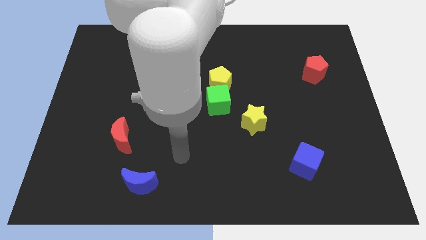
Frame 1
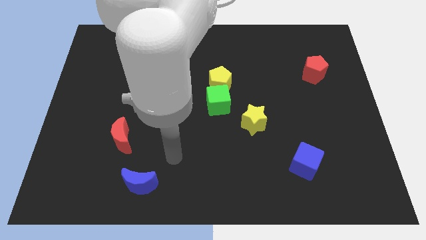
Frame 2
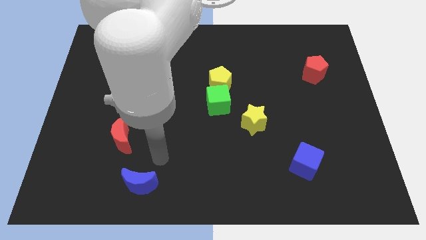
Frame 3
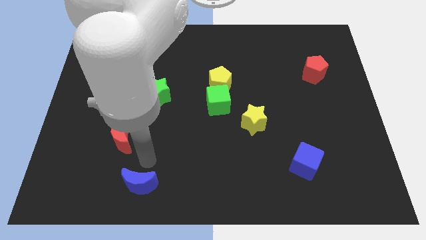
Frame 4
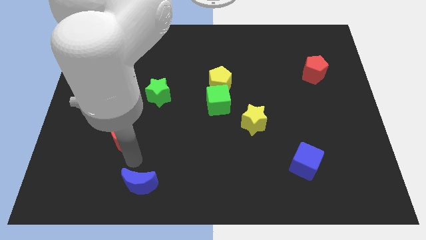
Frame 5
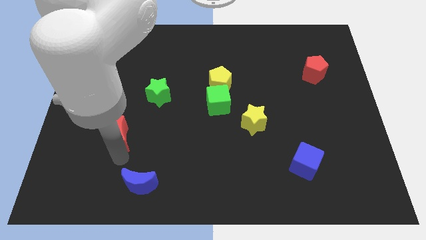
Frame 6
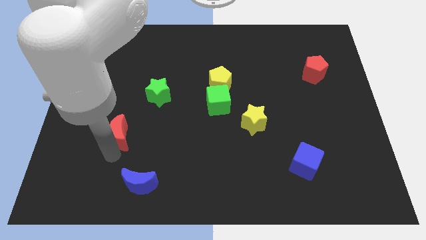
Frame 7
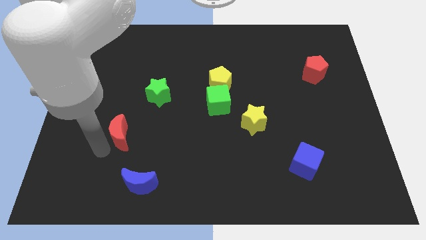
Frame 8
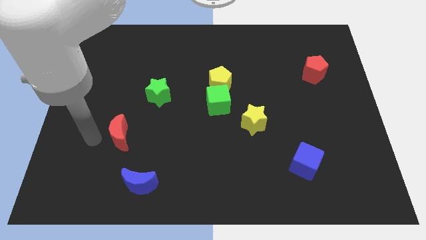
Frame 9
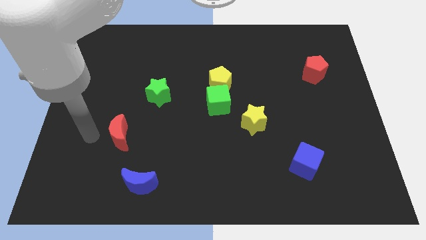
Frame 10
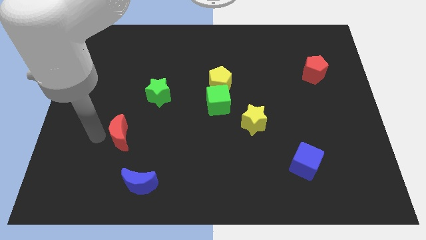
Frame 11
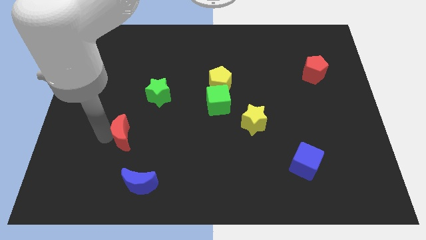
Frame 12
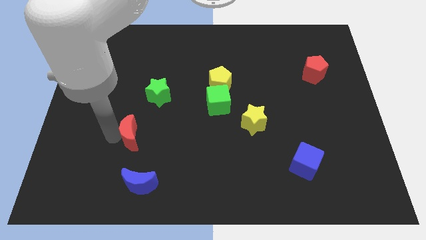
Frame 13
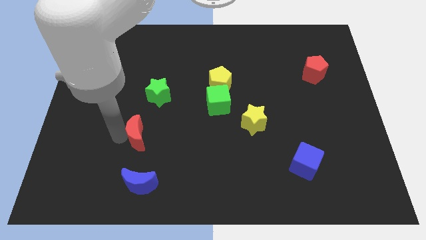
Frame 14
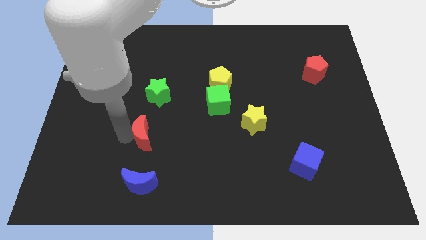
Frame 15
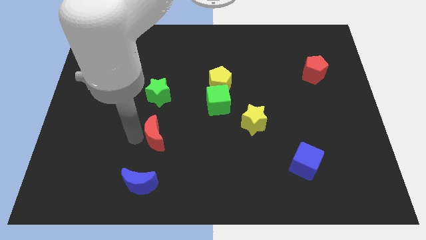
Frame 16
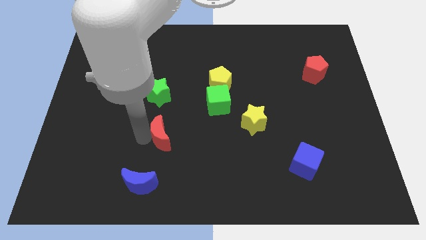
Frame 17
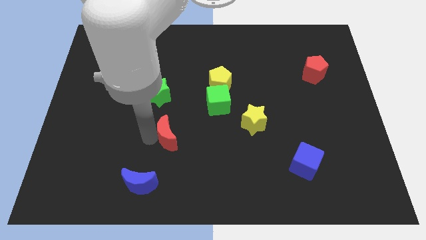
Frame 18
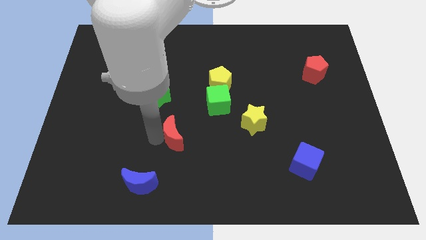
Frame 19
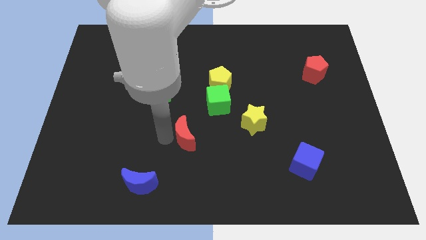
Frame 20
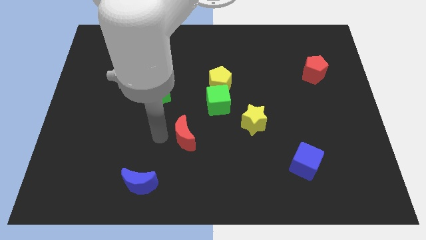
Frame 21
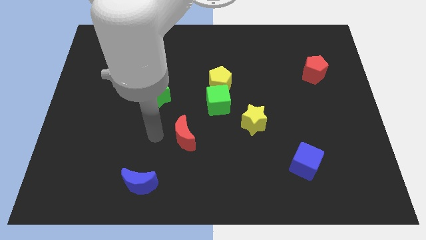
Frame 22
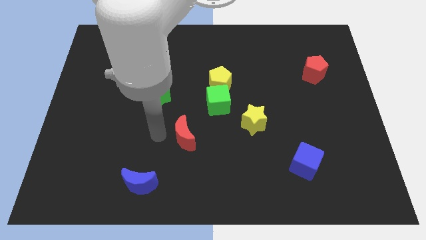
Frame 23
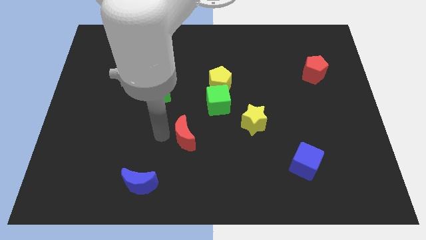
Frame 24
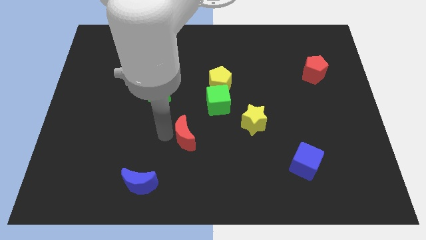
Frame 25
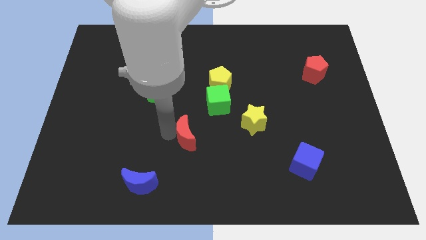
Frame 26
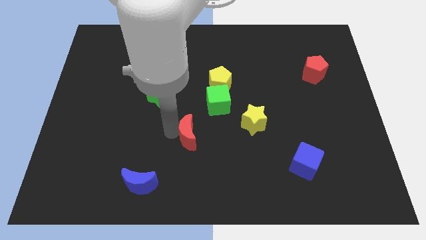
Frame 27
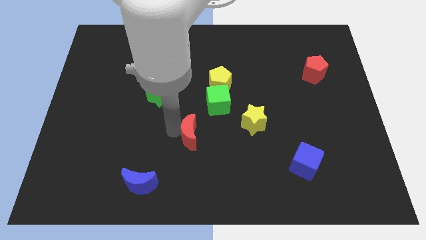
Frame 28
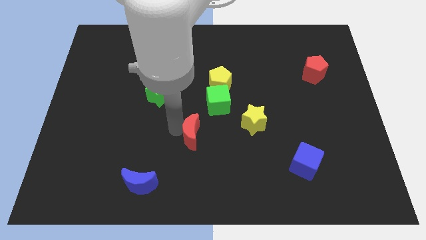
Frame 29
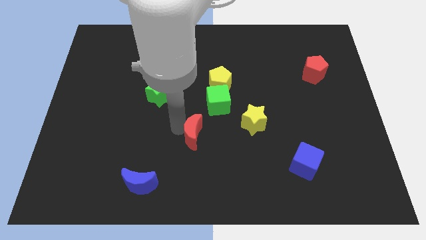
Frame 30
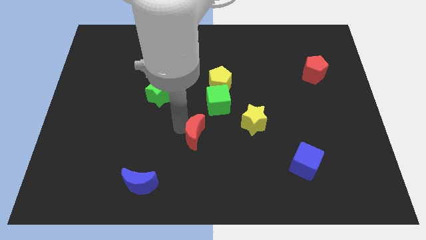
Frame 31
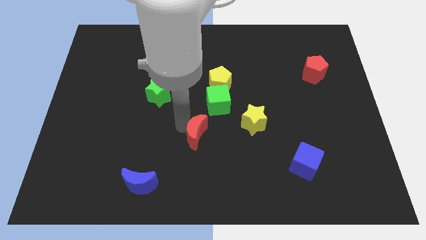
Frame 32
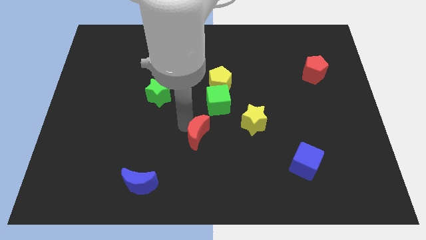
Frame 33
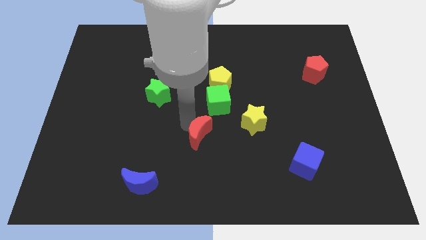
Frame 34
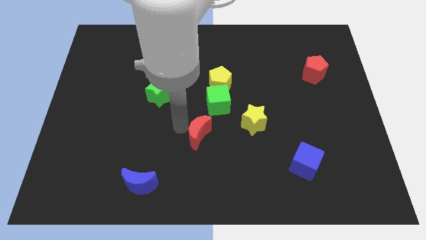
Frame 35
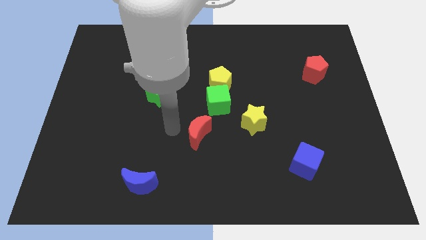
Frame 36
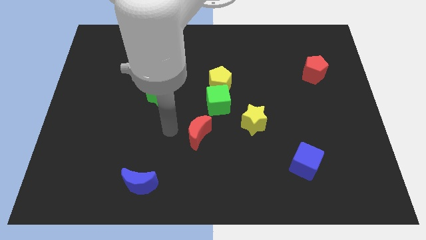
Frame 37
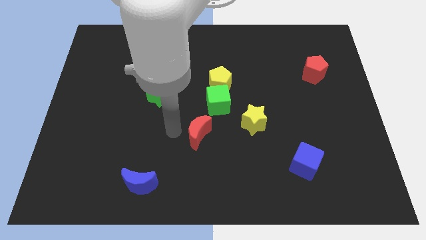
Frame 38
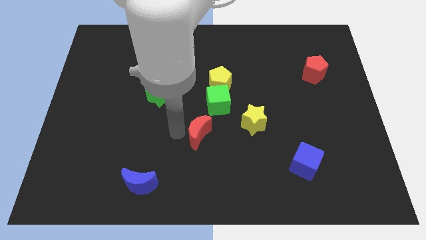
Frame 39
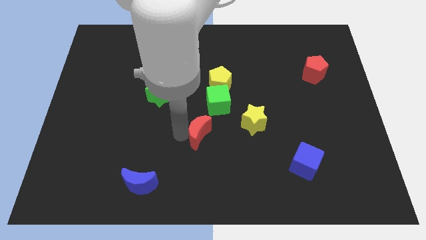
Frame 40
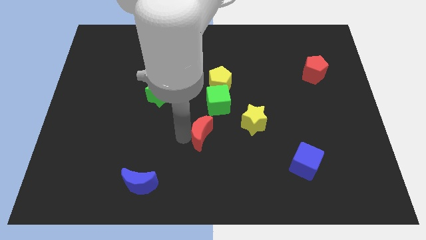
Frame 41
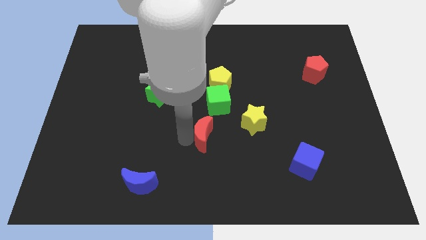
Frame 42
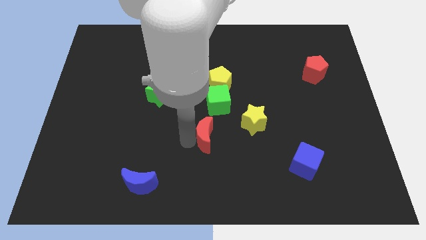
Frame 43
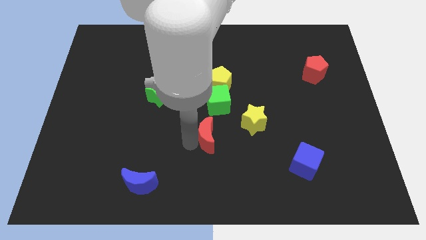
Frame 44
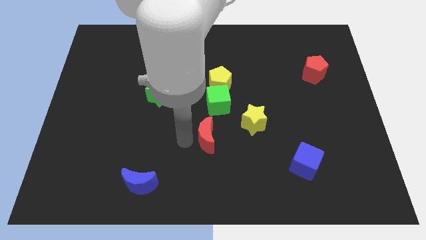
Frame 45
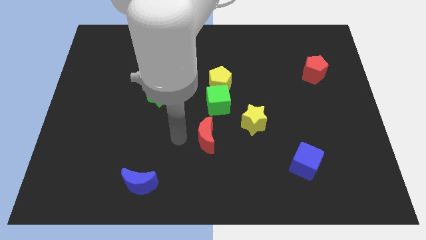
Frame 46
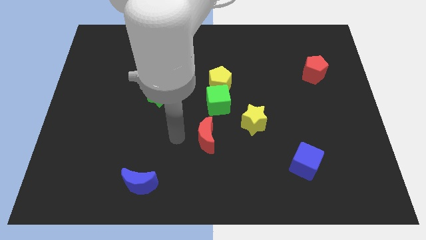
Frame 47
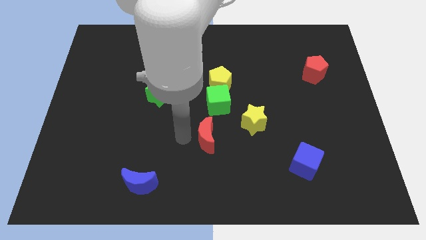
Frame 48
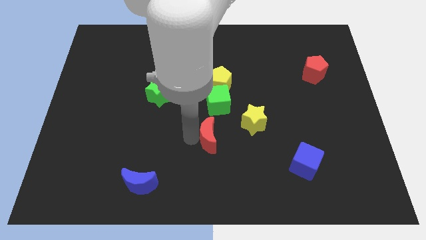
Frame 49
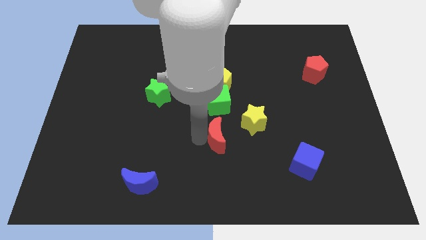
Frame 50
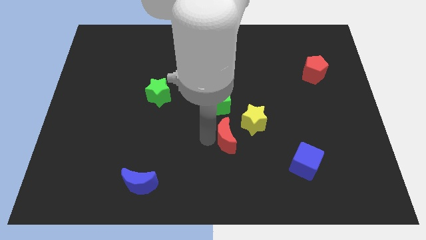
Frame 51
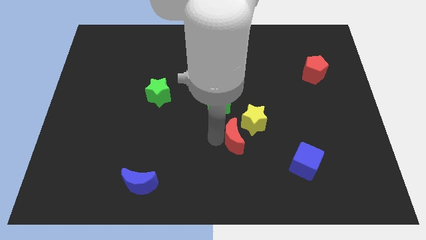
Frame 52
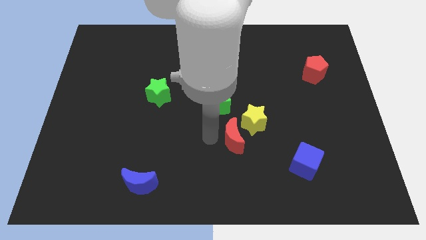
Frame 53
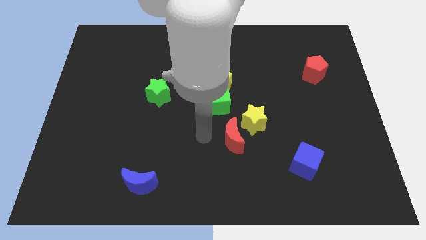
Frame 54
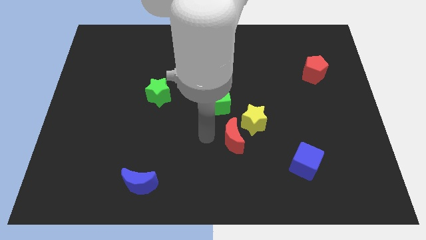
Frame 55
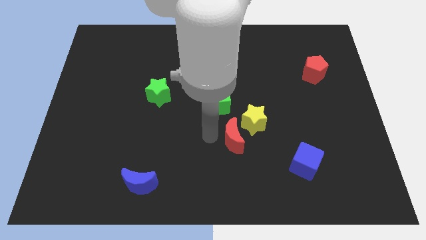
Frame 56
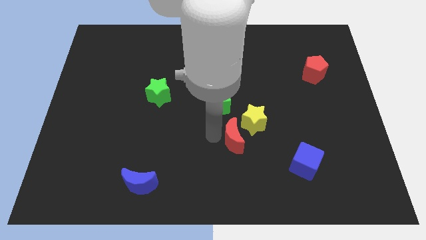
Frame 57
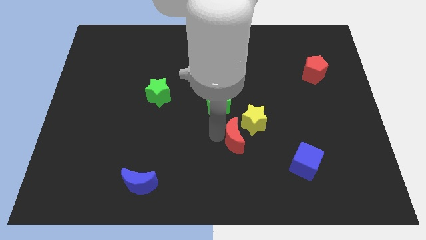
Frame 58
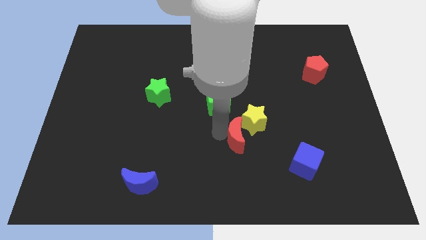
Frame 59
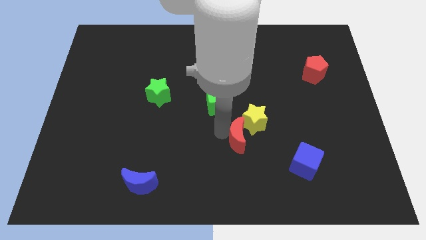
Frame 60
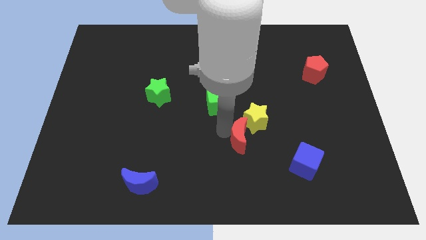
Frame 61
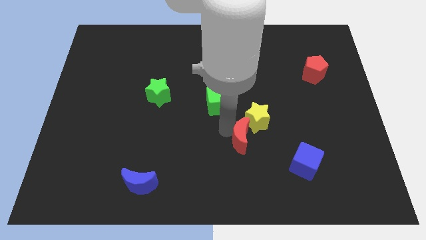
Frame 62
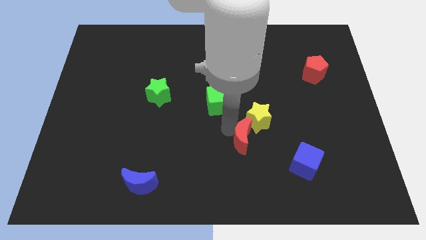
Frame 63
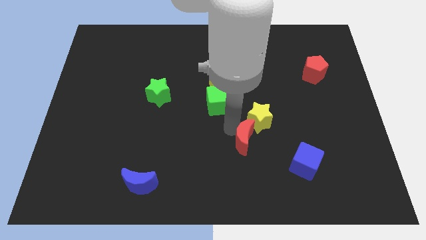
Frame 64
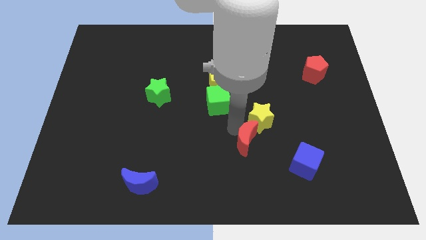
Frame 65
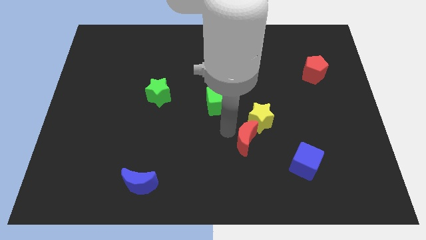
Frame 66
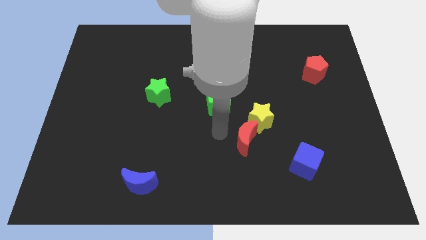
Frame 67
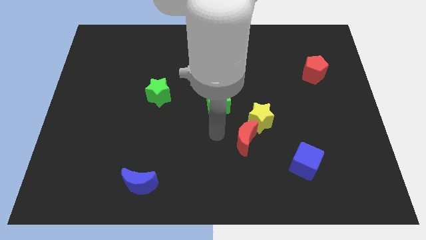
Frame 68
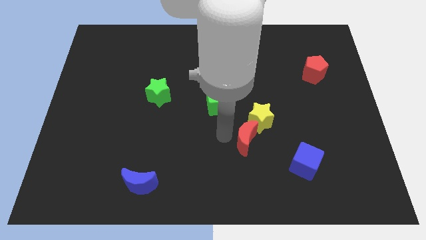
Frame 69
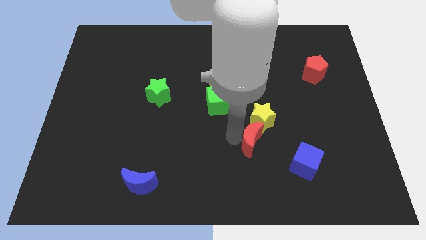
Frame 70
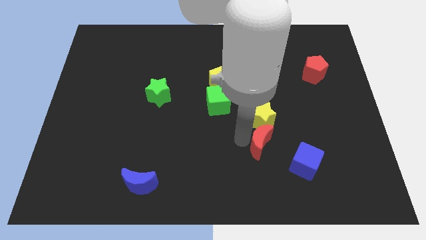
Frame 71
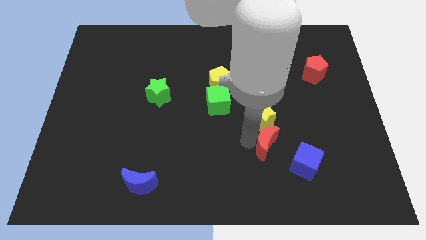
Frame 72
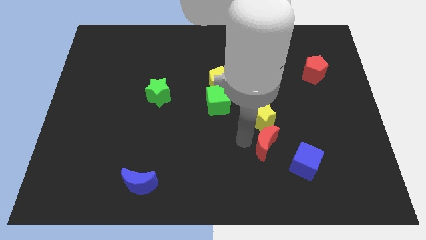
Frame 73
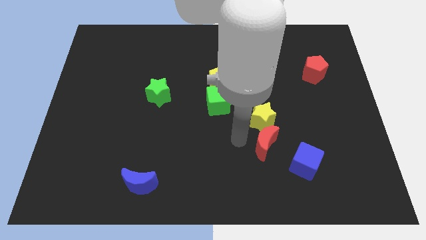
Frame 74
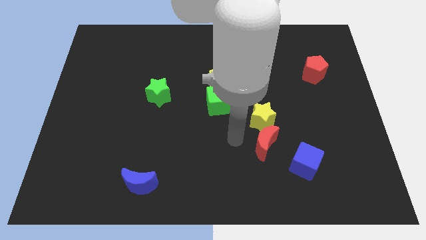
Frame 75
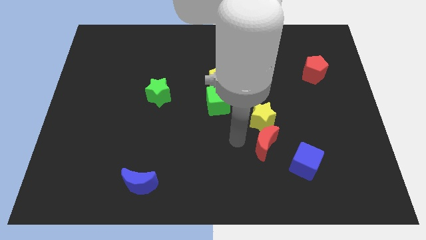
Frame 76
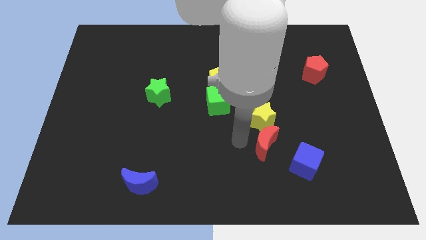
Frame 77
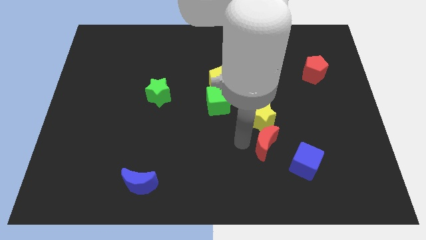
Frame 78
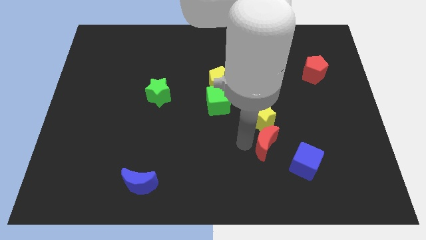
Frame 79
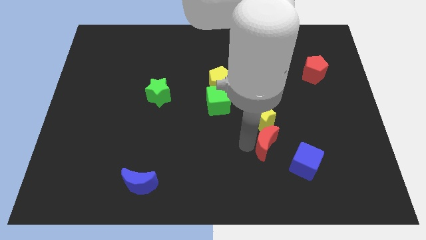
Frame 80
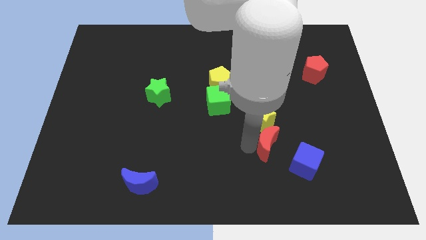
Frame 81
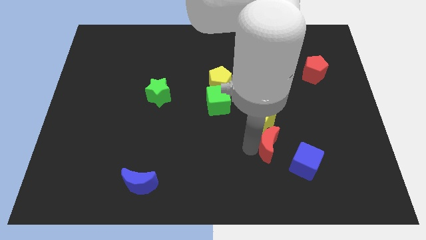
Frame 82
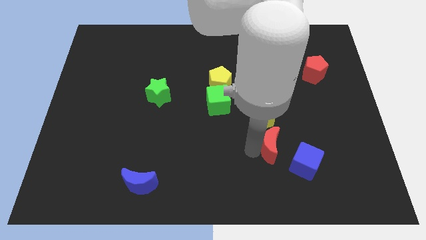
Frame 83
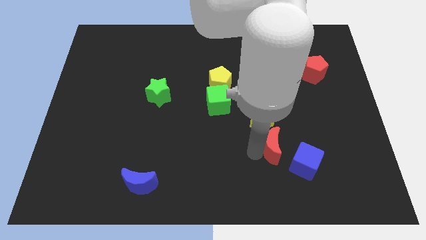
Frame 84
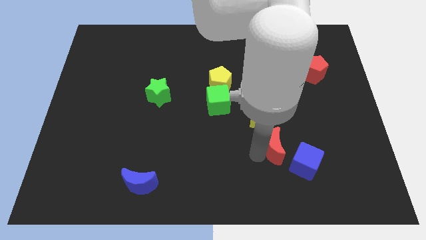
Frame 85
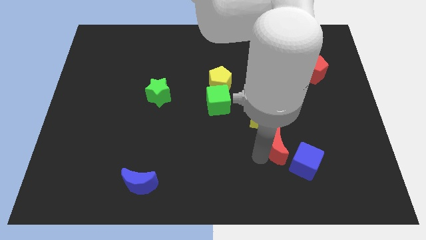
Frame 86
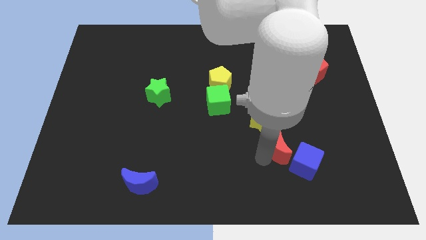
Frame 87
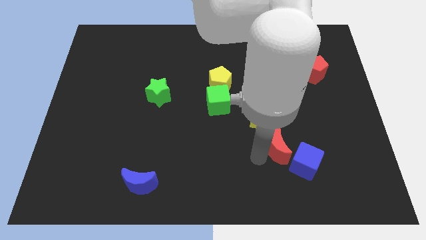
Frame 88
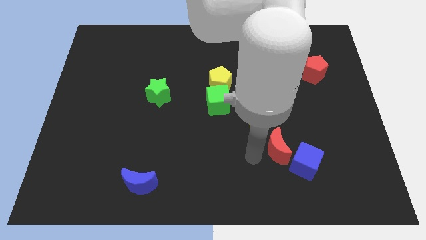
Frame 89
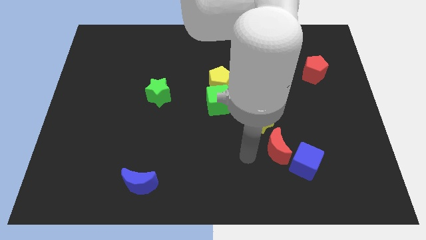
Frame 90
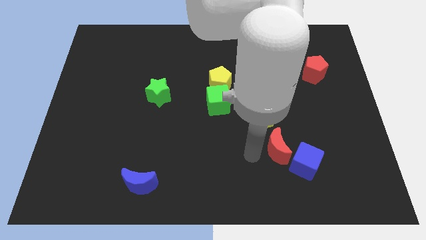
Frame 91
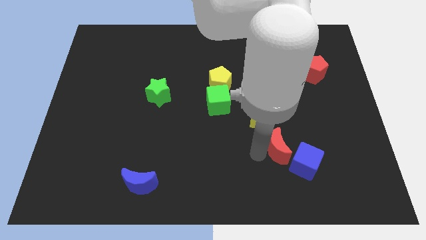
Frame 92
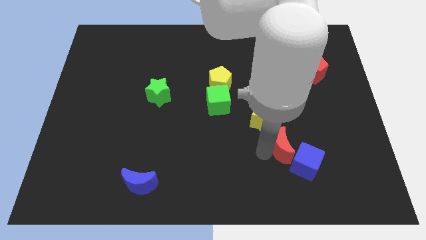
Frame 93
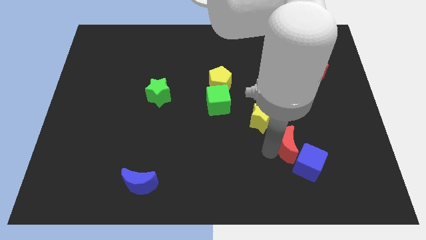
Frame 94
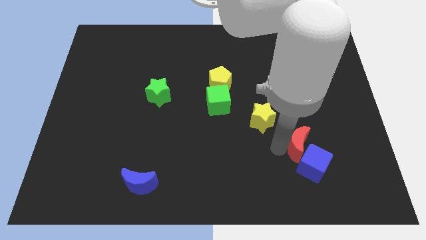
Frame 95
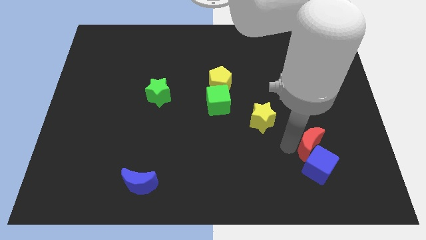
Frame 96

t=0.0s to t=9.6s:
slide the red moon to the top right side of the blue cube
